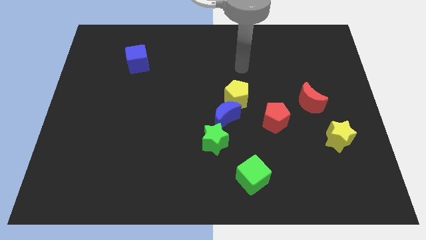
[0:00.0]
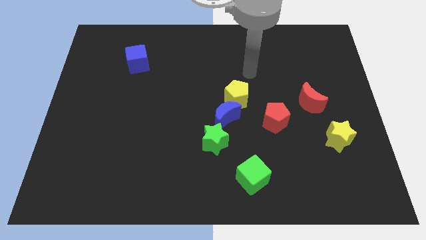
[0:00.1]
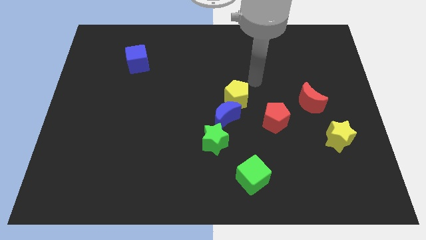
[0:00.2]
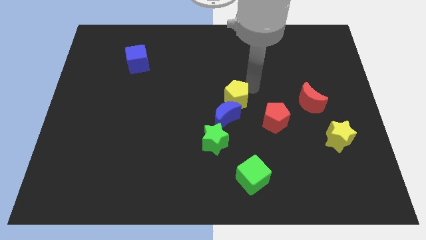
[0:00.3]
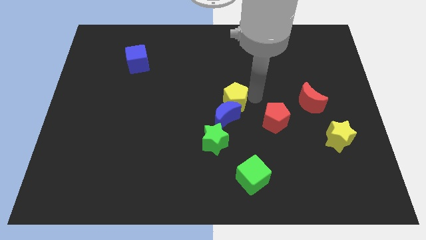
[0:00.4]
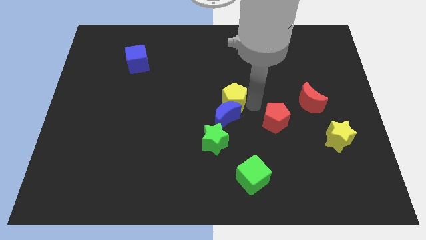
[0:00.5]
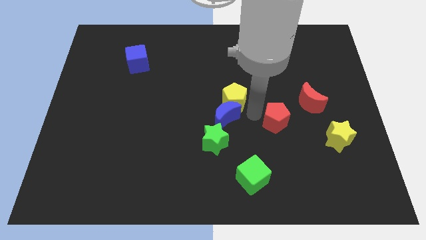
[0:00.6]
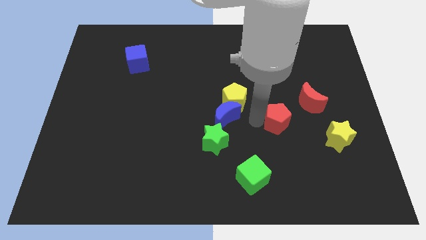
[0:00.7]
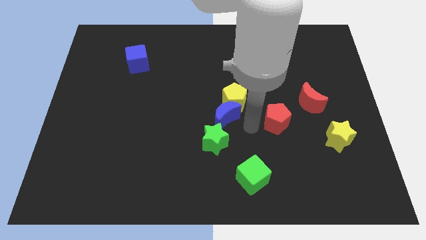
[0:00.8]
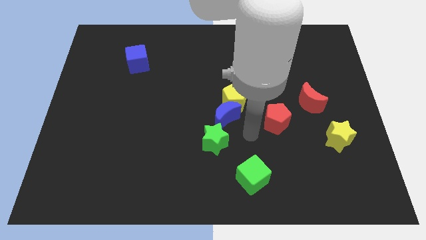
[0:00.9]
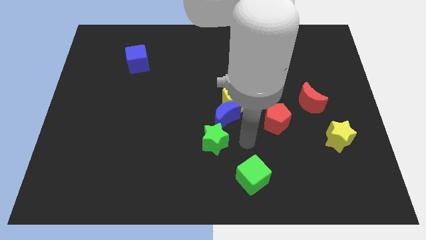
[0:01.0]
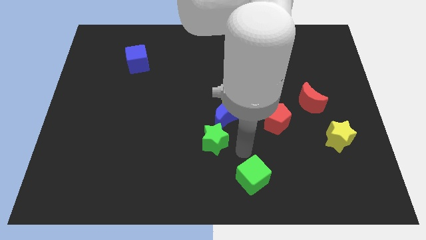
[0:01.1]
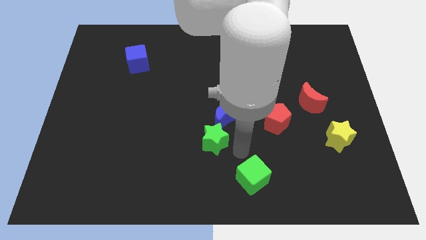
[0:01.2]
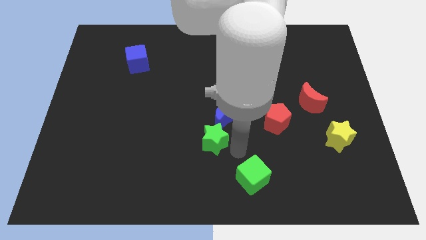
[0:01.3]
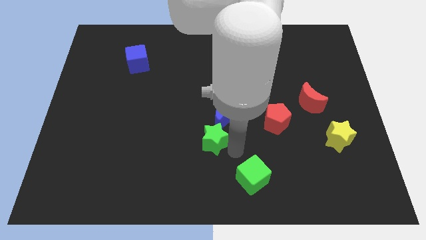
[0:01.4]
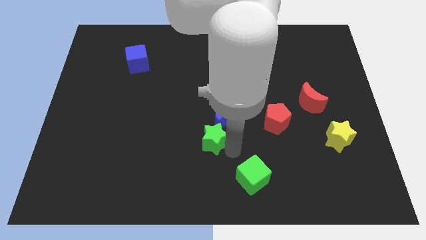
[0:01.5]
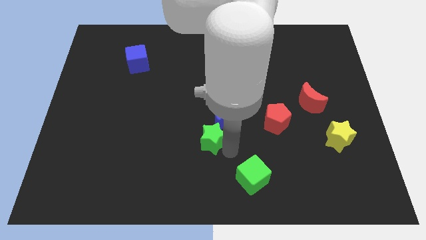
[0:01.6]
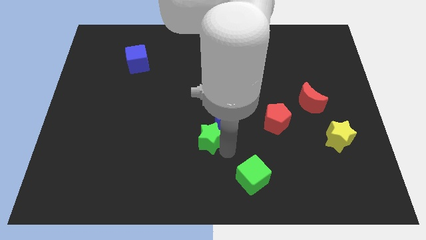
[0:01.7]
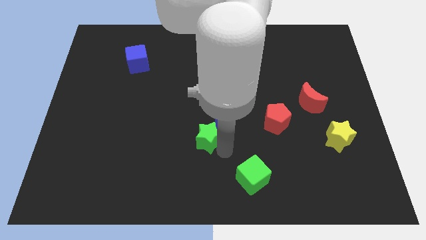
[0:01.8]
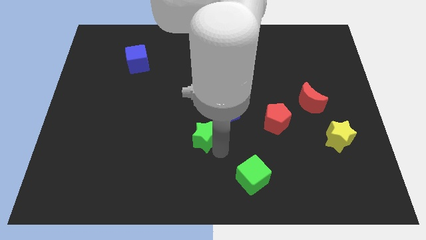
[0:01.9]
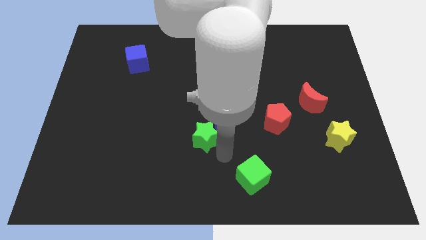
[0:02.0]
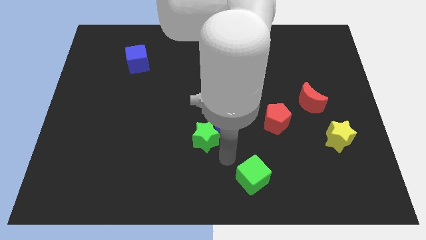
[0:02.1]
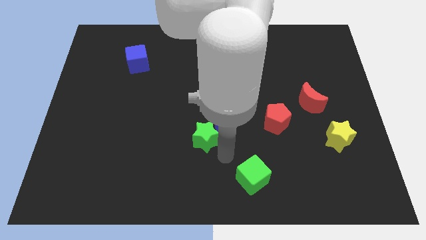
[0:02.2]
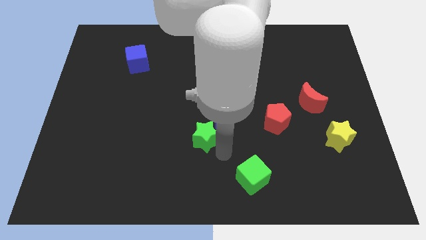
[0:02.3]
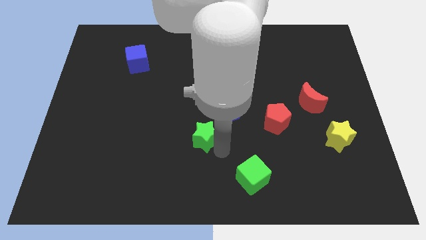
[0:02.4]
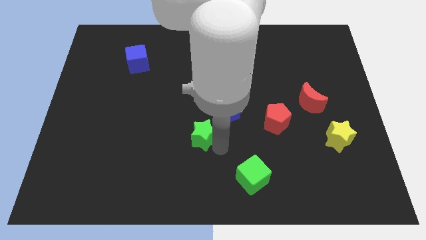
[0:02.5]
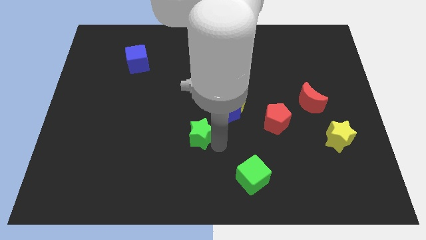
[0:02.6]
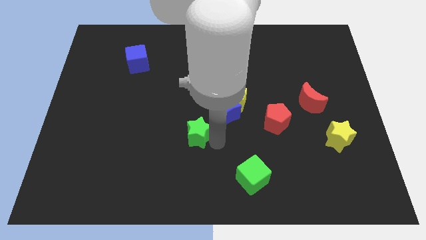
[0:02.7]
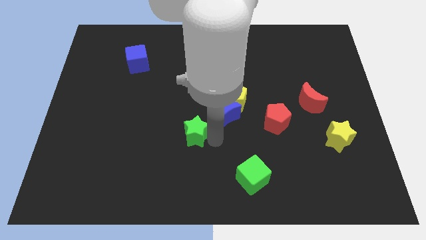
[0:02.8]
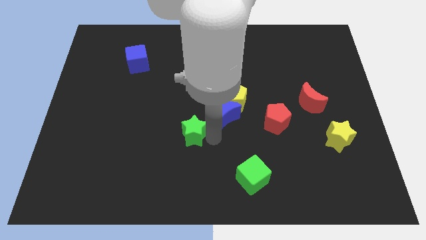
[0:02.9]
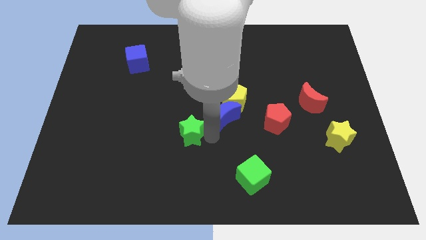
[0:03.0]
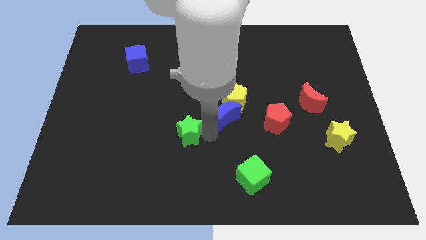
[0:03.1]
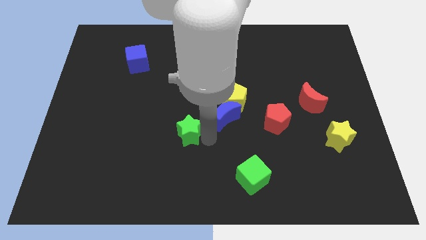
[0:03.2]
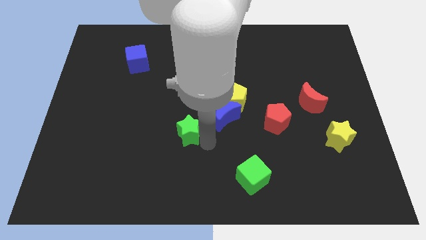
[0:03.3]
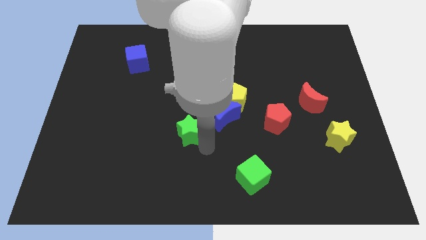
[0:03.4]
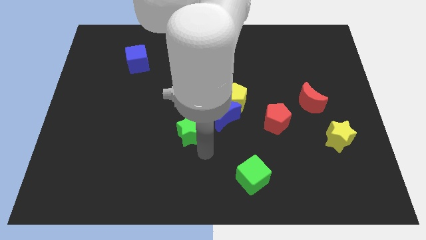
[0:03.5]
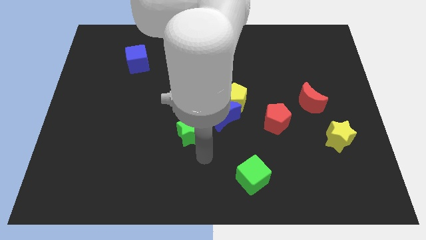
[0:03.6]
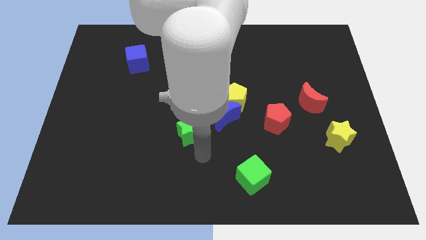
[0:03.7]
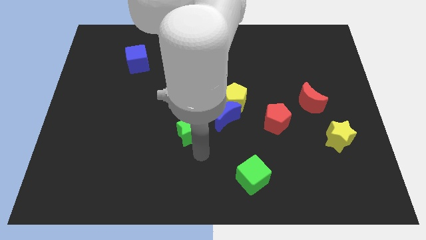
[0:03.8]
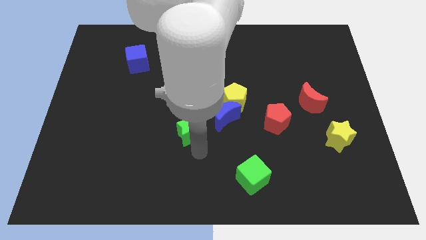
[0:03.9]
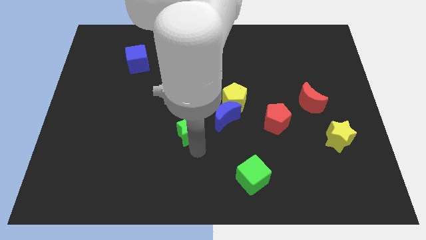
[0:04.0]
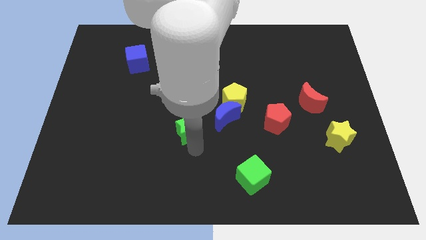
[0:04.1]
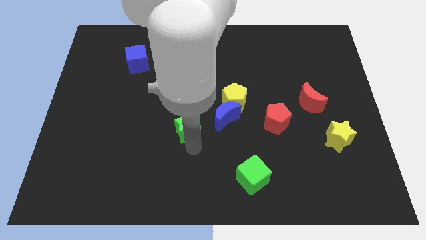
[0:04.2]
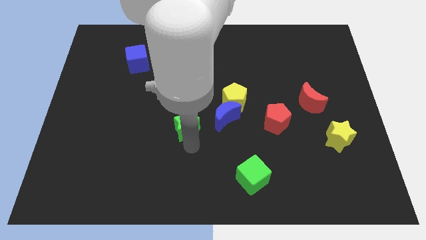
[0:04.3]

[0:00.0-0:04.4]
slightly move the green star up and left diagonally

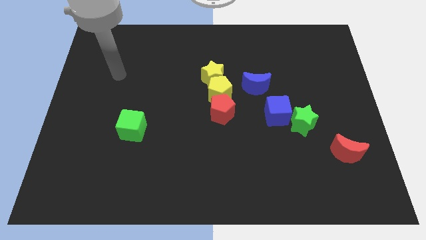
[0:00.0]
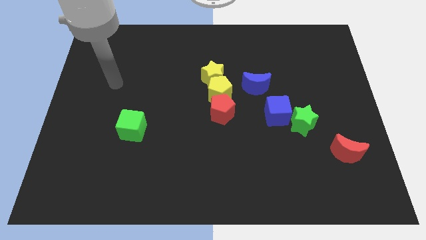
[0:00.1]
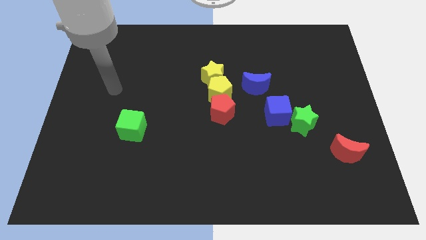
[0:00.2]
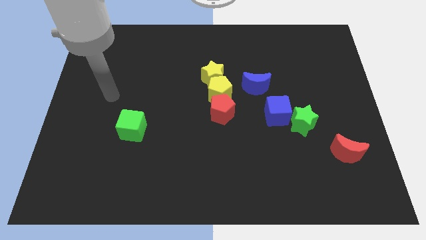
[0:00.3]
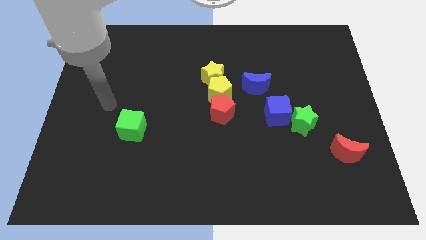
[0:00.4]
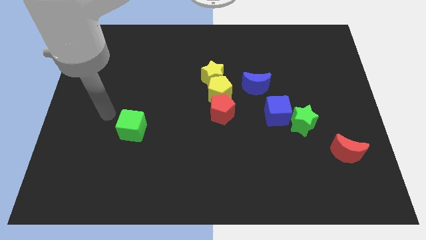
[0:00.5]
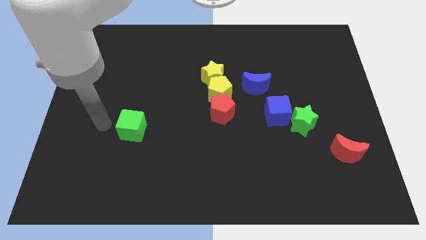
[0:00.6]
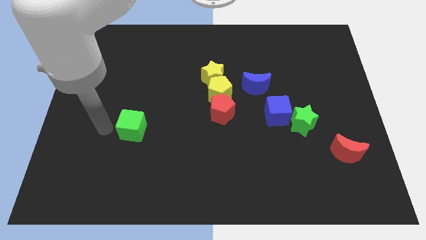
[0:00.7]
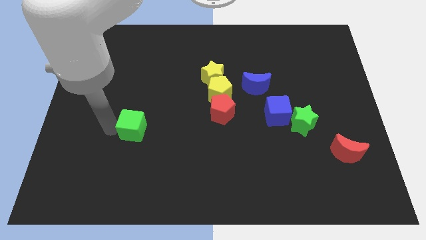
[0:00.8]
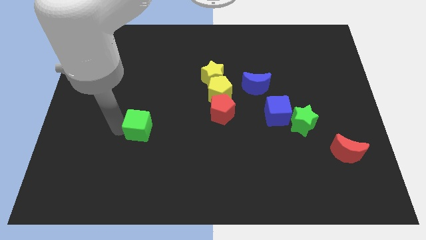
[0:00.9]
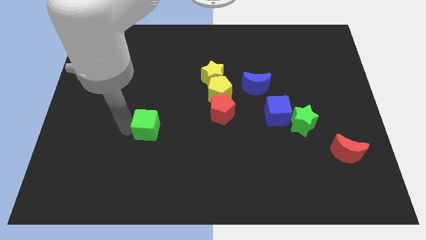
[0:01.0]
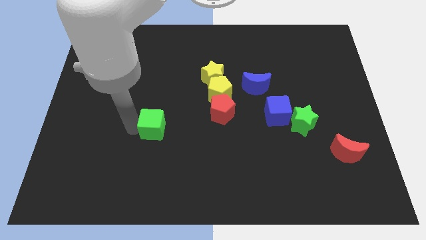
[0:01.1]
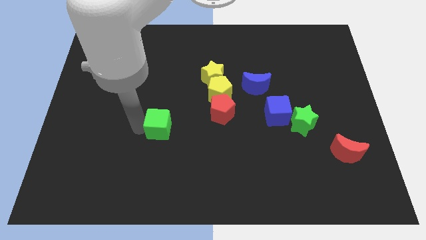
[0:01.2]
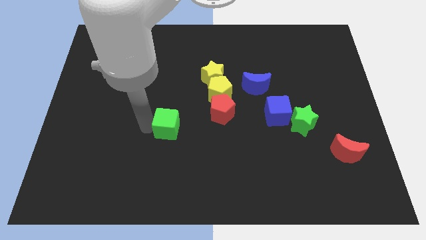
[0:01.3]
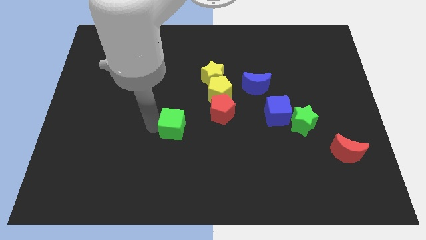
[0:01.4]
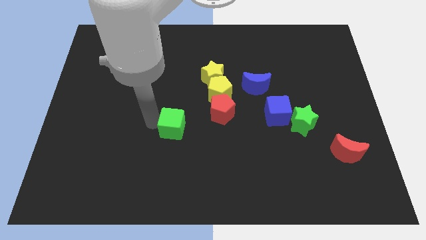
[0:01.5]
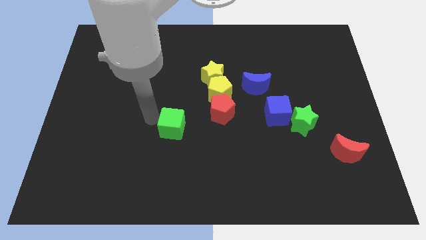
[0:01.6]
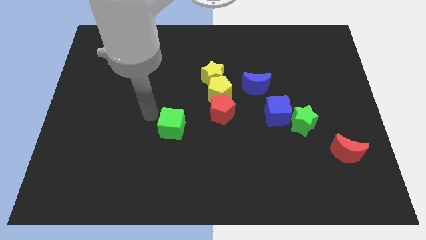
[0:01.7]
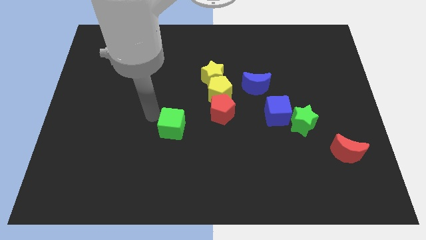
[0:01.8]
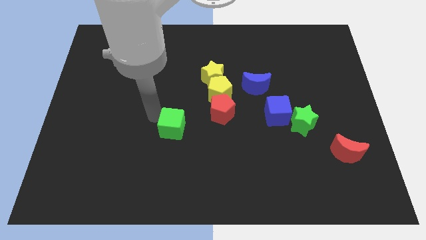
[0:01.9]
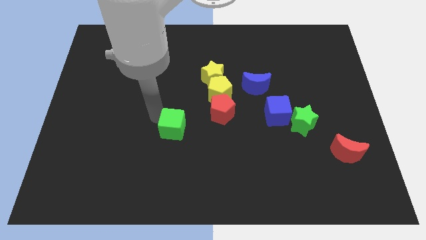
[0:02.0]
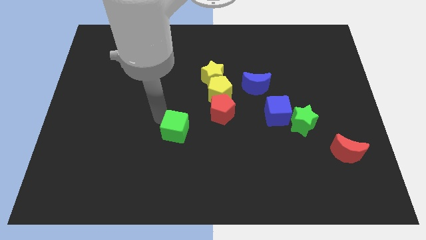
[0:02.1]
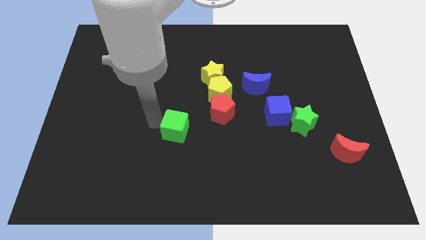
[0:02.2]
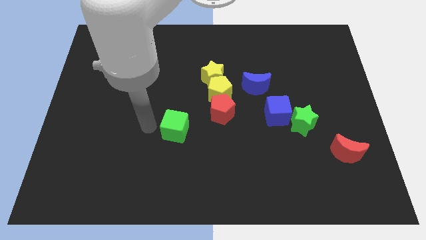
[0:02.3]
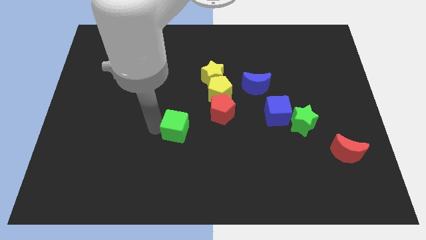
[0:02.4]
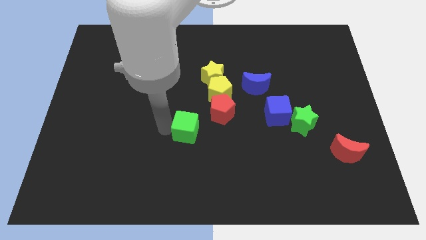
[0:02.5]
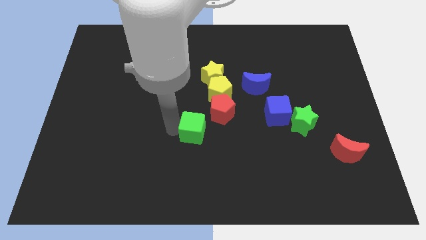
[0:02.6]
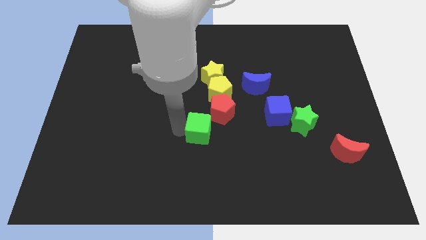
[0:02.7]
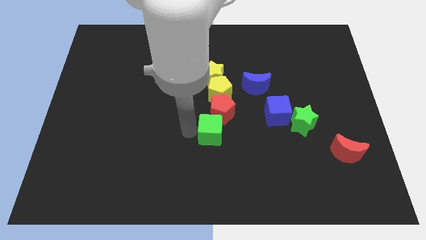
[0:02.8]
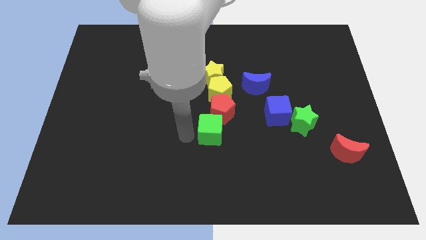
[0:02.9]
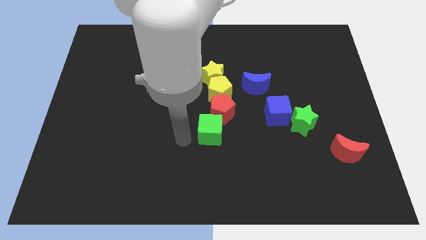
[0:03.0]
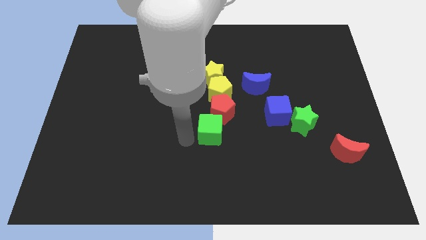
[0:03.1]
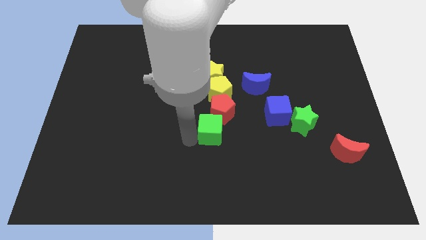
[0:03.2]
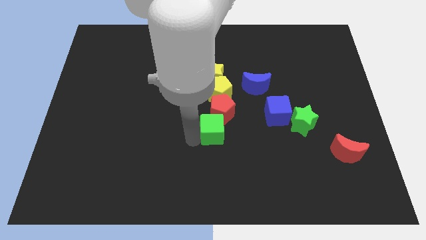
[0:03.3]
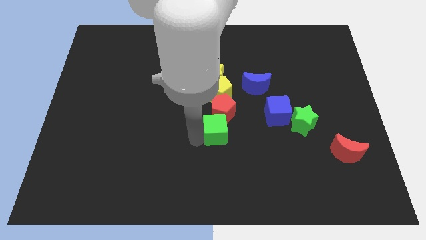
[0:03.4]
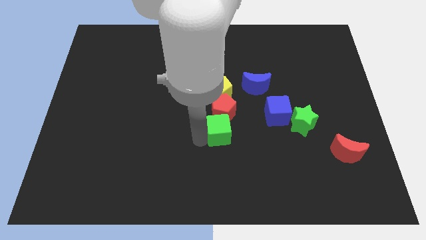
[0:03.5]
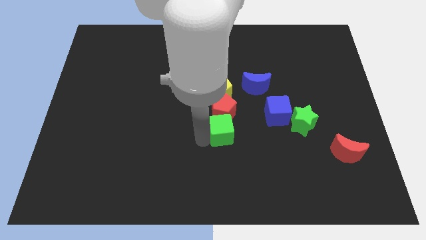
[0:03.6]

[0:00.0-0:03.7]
slide the green cube right
